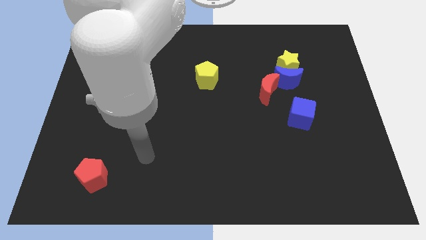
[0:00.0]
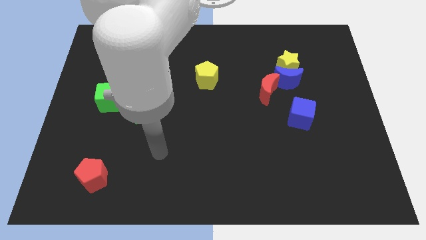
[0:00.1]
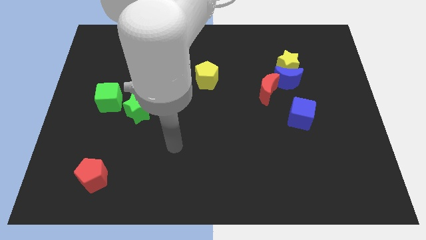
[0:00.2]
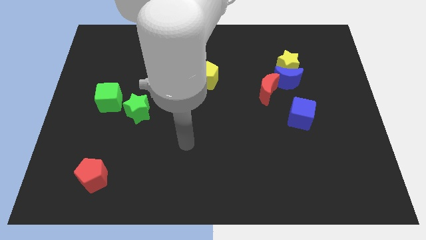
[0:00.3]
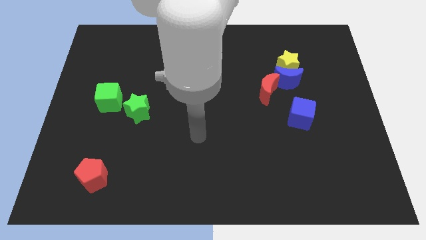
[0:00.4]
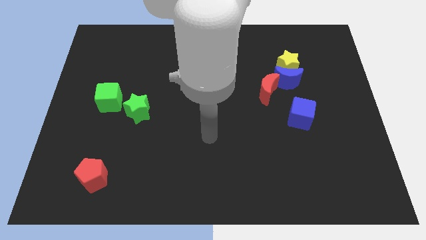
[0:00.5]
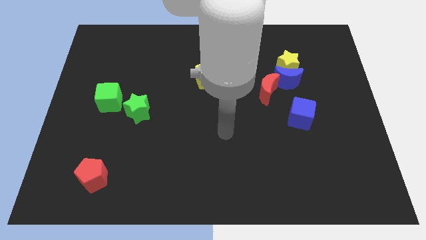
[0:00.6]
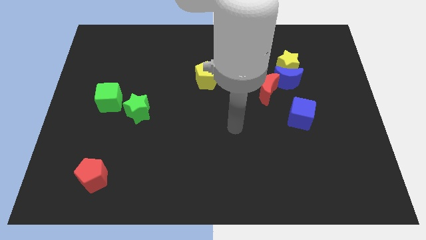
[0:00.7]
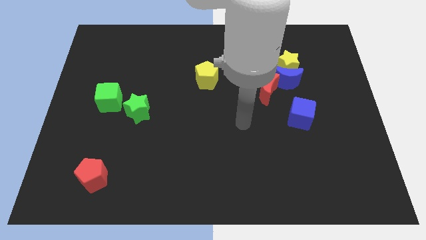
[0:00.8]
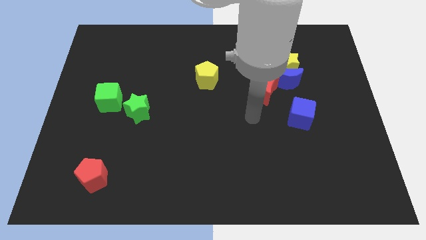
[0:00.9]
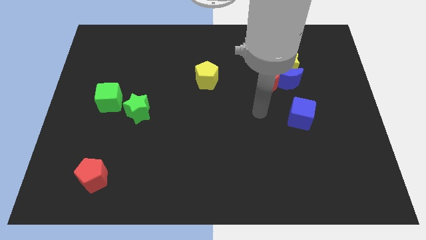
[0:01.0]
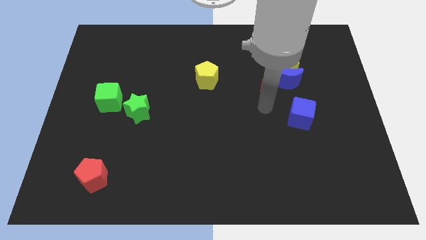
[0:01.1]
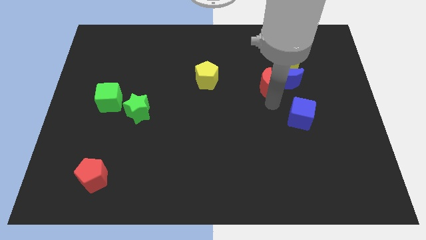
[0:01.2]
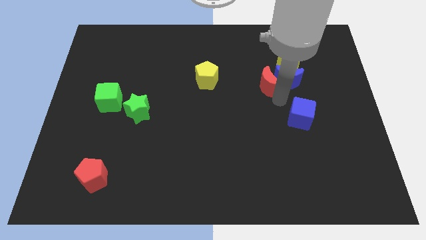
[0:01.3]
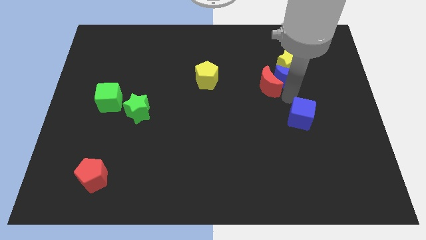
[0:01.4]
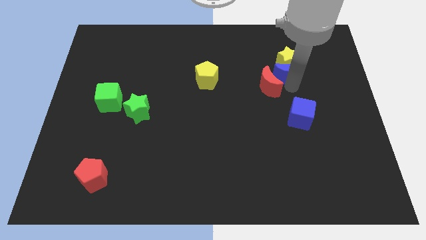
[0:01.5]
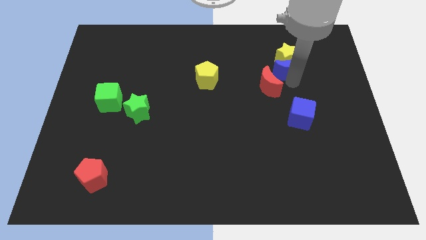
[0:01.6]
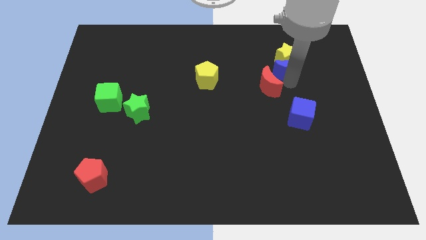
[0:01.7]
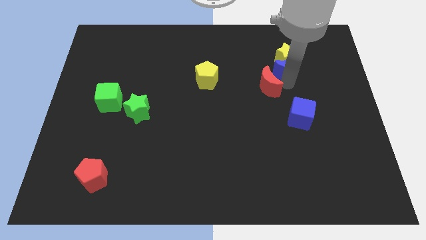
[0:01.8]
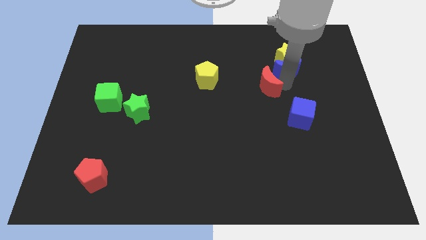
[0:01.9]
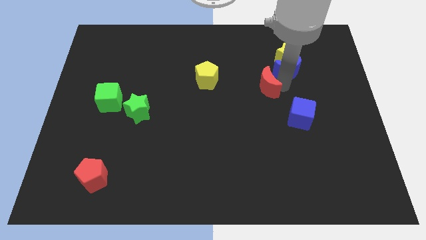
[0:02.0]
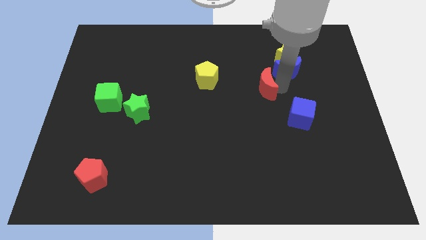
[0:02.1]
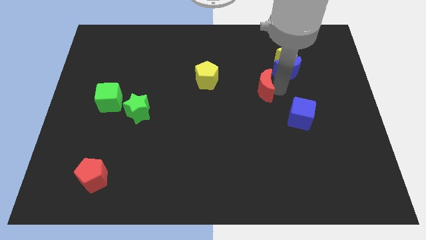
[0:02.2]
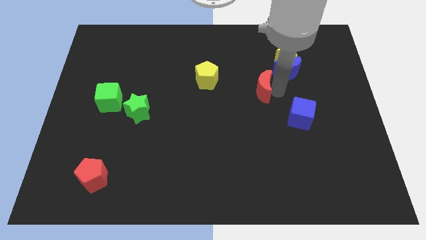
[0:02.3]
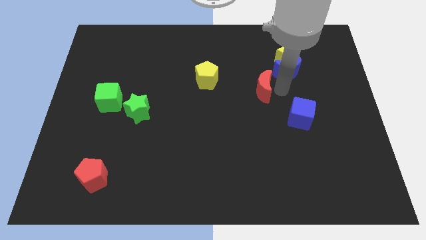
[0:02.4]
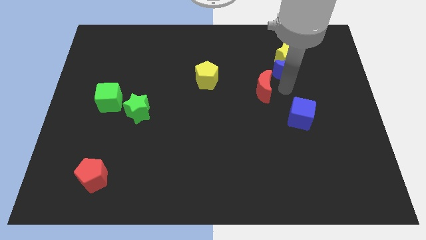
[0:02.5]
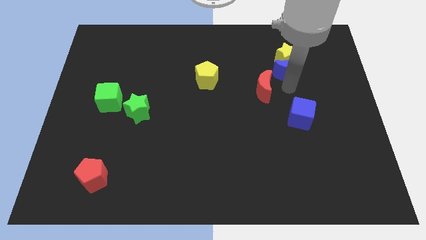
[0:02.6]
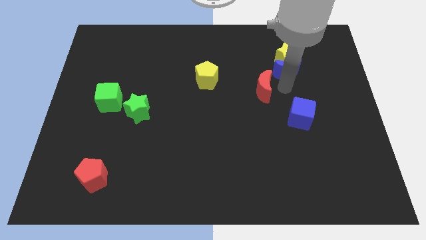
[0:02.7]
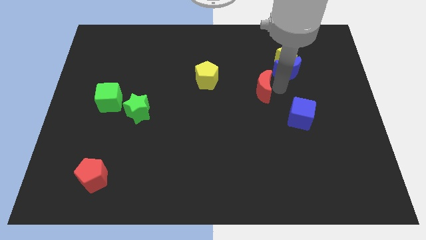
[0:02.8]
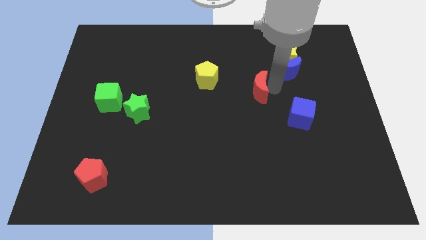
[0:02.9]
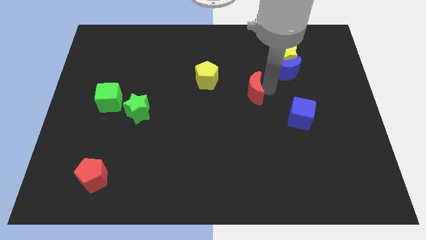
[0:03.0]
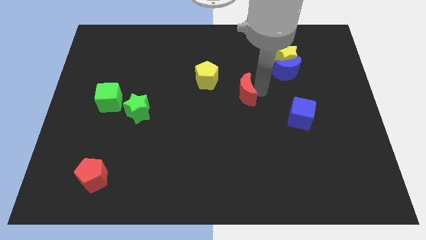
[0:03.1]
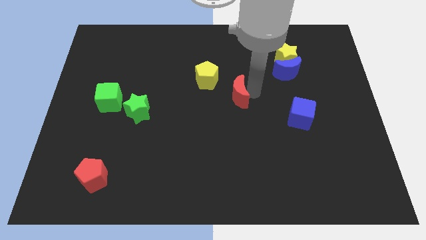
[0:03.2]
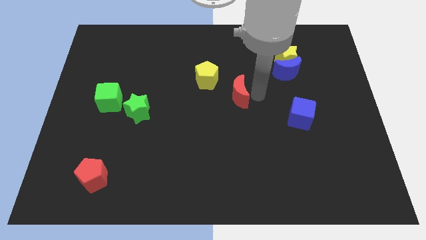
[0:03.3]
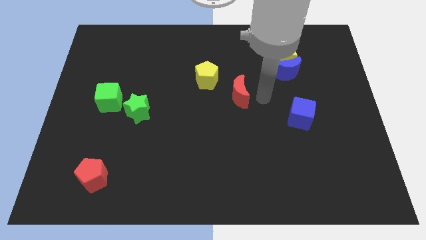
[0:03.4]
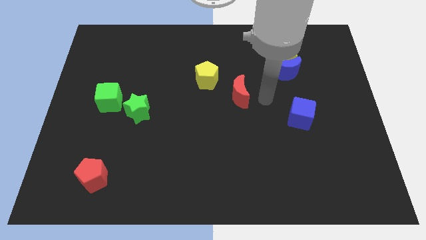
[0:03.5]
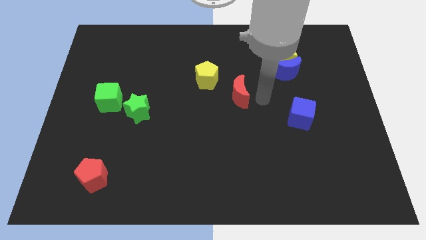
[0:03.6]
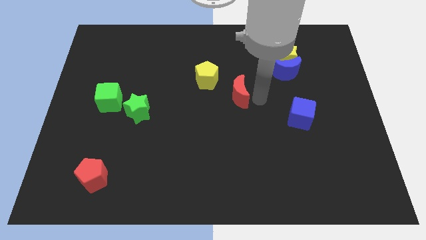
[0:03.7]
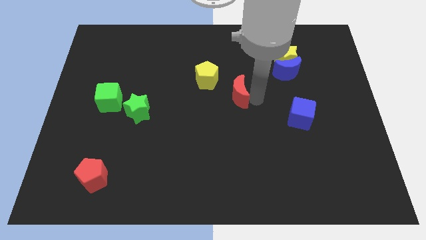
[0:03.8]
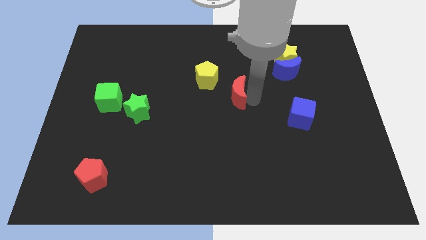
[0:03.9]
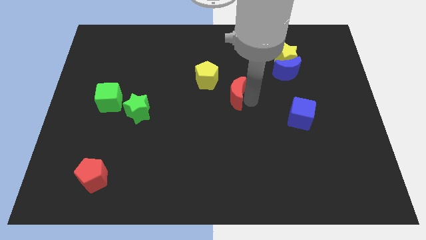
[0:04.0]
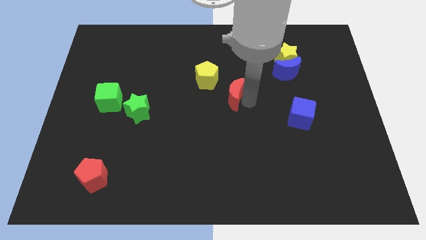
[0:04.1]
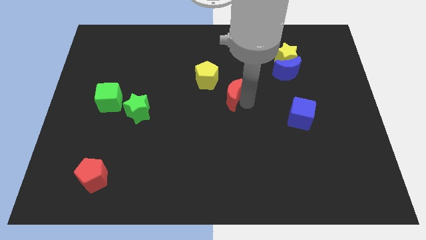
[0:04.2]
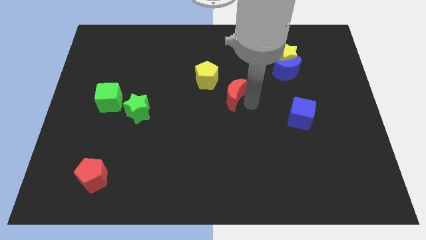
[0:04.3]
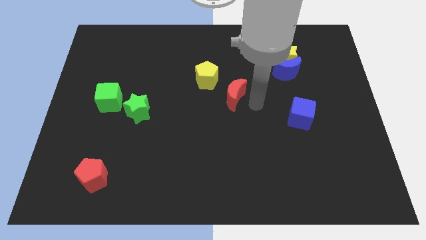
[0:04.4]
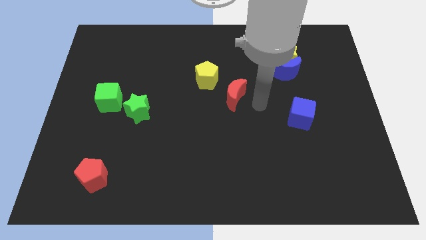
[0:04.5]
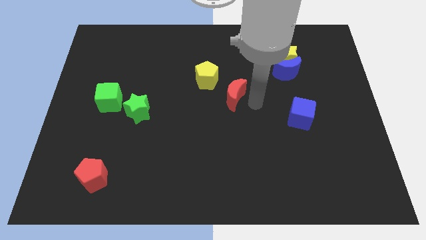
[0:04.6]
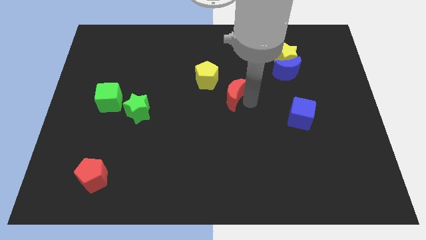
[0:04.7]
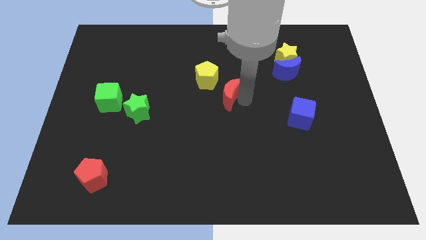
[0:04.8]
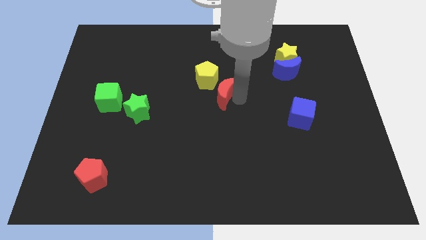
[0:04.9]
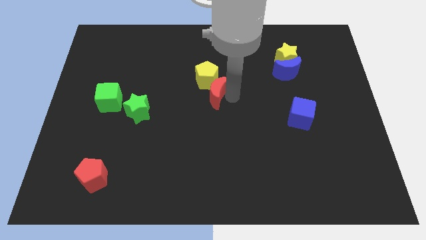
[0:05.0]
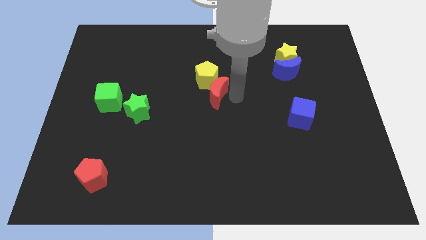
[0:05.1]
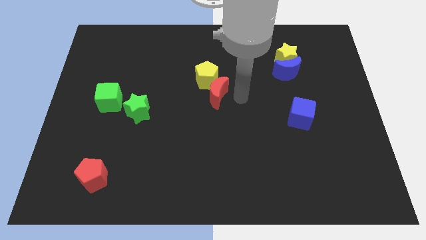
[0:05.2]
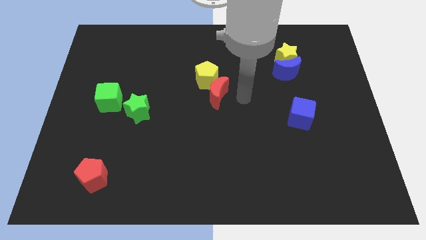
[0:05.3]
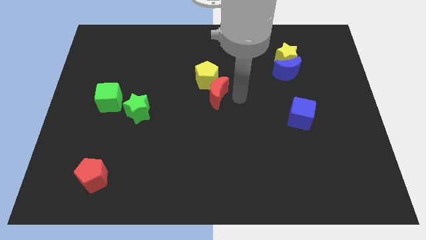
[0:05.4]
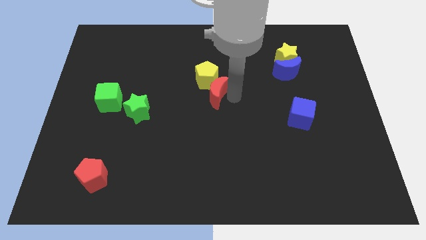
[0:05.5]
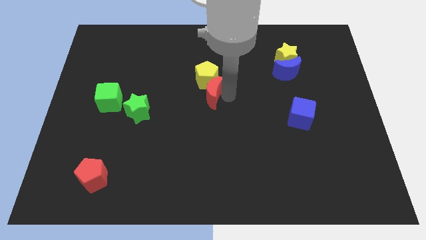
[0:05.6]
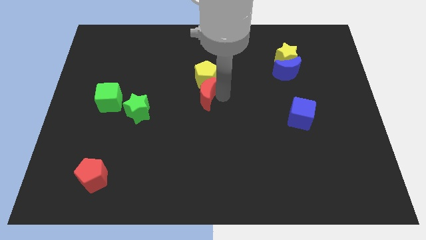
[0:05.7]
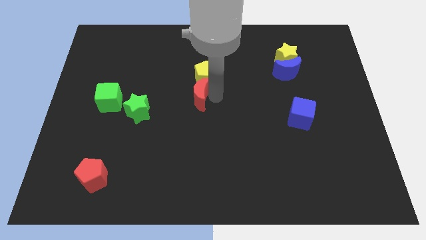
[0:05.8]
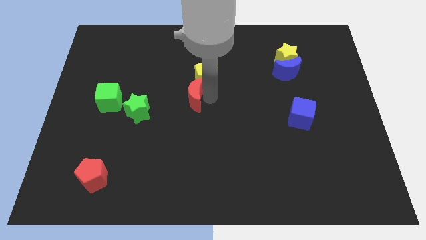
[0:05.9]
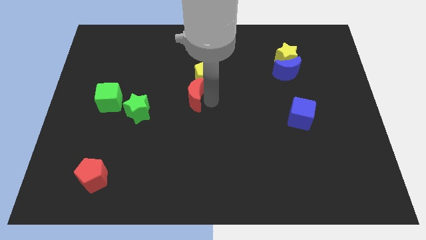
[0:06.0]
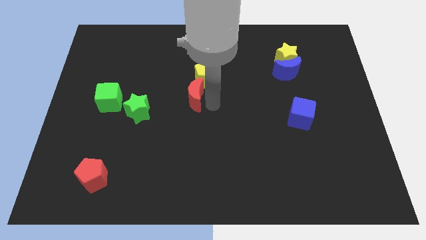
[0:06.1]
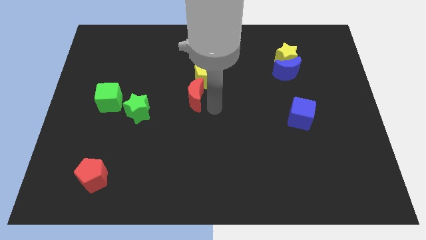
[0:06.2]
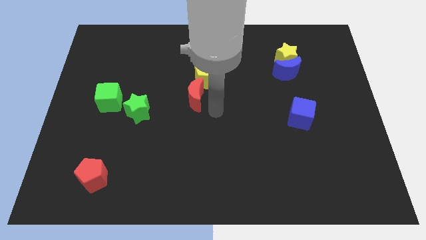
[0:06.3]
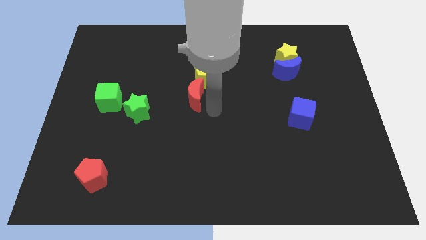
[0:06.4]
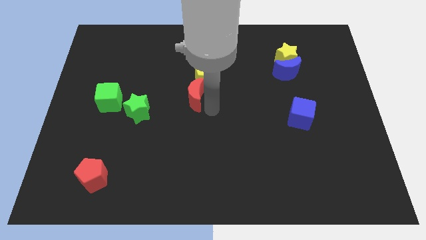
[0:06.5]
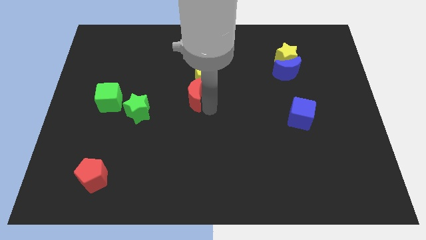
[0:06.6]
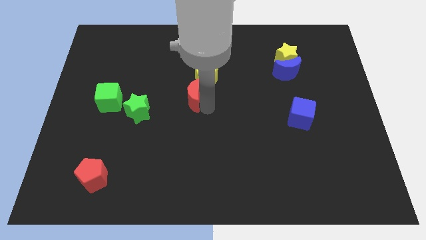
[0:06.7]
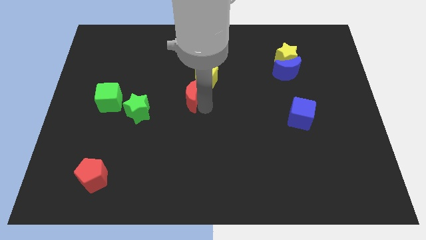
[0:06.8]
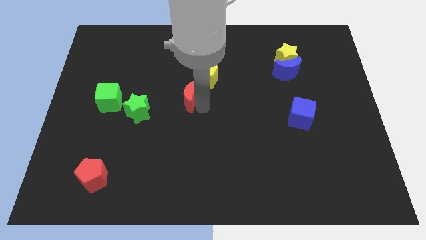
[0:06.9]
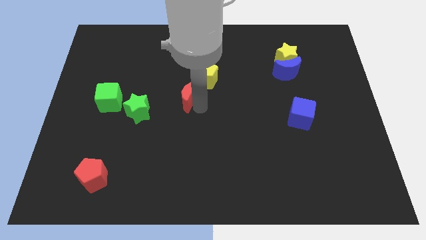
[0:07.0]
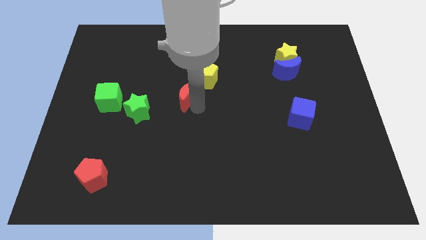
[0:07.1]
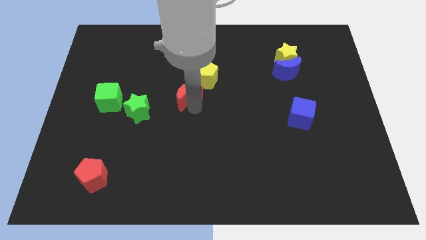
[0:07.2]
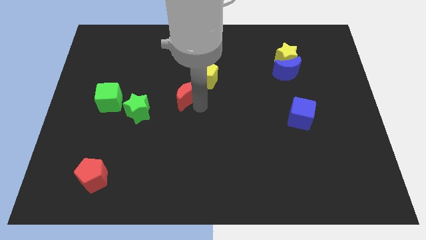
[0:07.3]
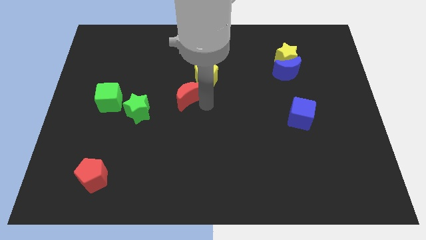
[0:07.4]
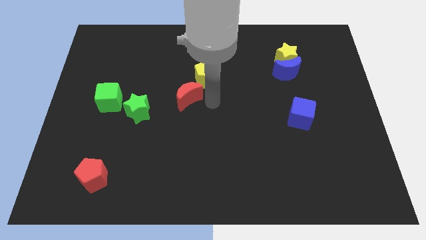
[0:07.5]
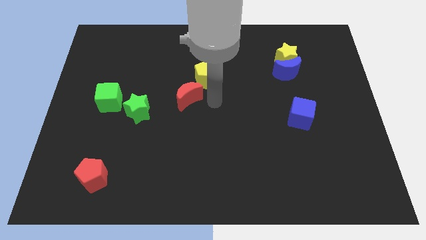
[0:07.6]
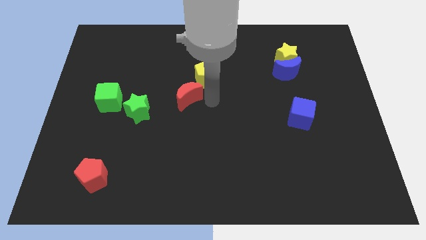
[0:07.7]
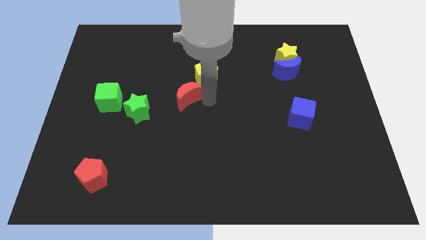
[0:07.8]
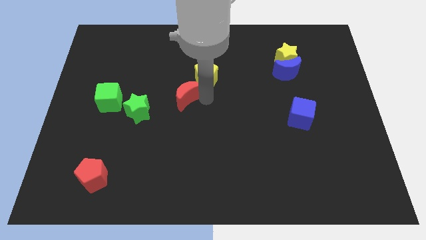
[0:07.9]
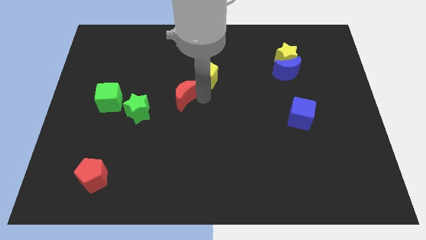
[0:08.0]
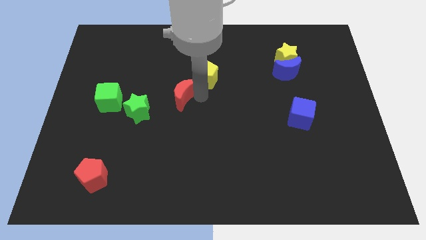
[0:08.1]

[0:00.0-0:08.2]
slide the red moon to the top right of the green star
